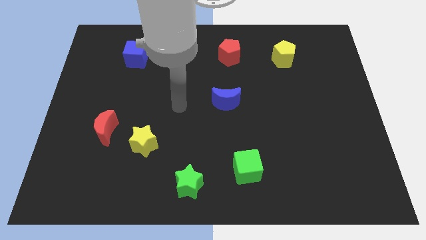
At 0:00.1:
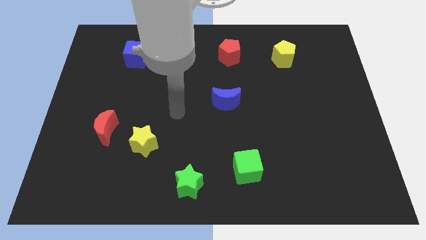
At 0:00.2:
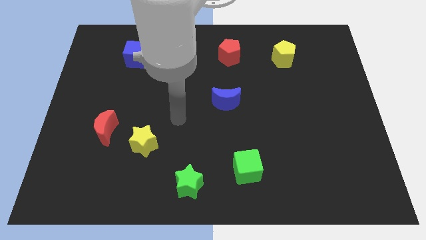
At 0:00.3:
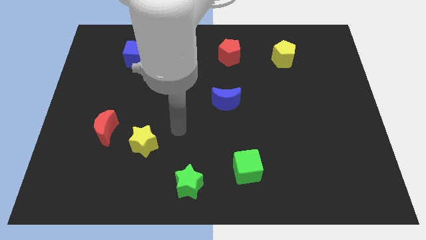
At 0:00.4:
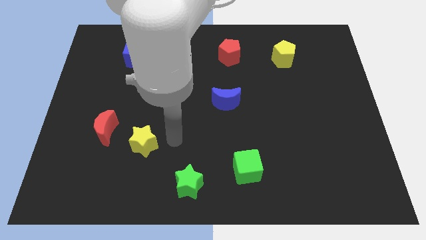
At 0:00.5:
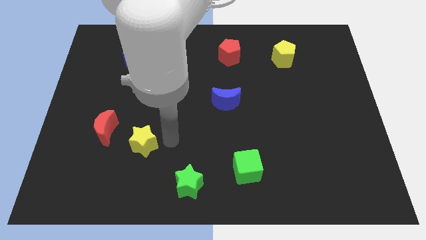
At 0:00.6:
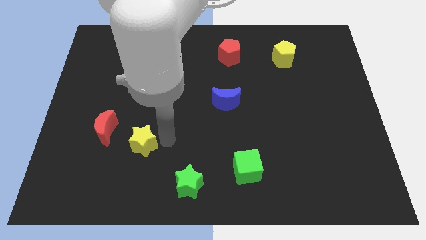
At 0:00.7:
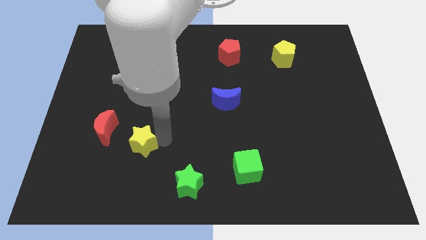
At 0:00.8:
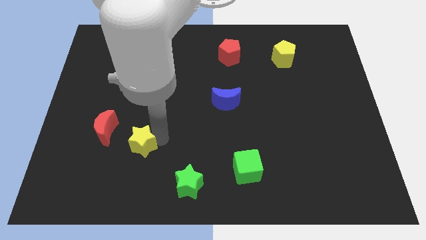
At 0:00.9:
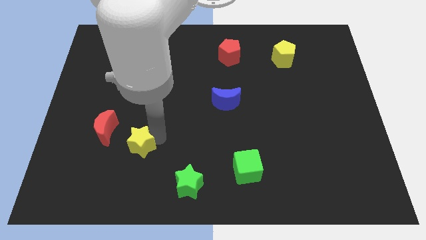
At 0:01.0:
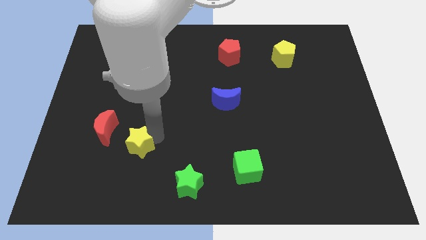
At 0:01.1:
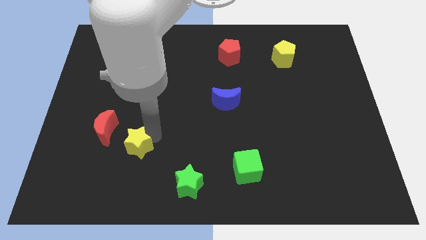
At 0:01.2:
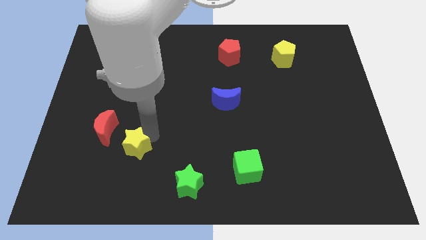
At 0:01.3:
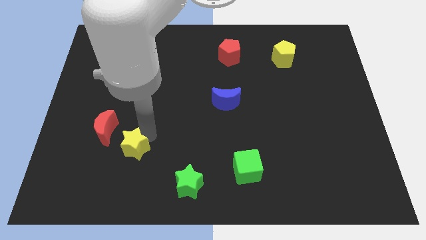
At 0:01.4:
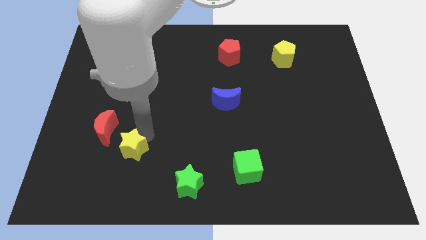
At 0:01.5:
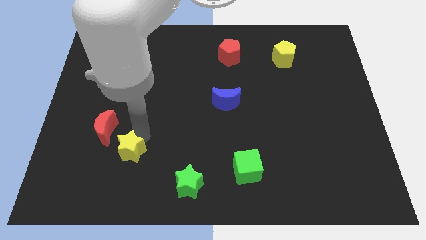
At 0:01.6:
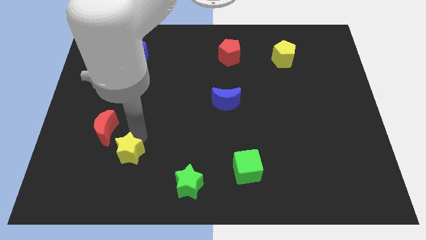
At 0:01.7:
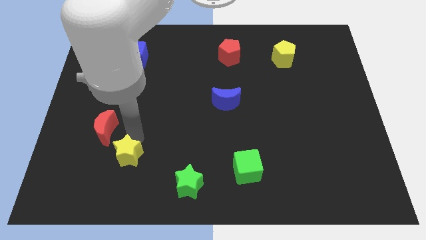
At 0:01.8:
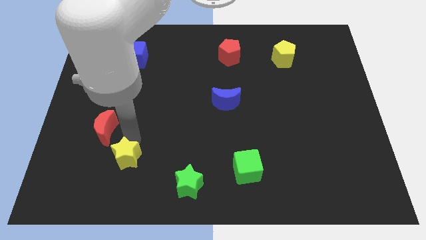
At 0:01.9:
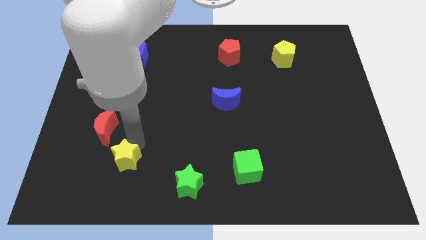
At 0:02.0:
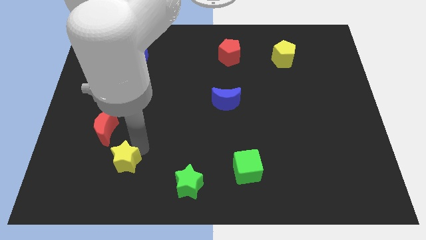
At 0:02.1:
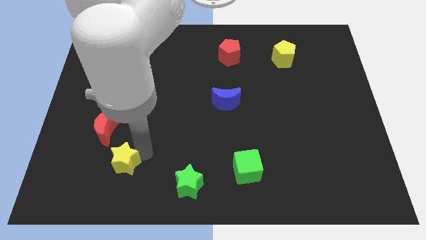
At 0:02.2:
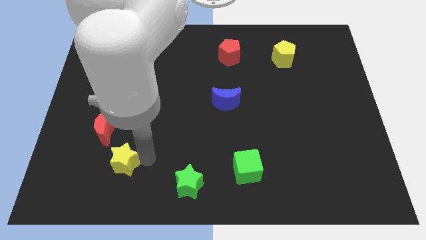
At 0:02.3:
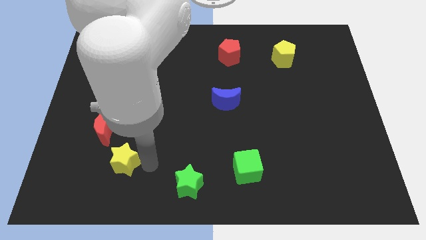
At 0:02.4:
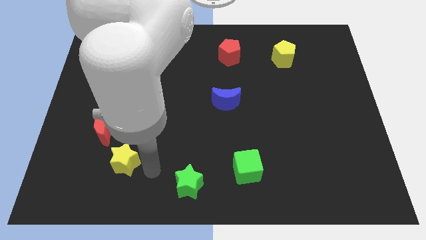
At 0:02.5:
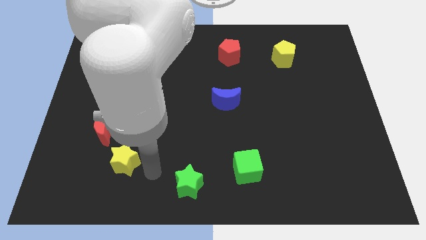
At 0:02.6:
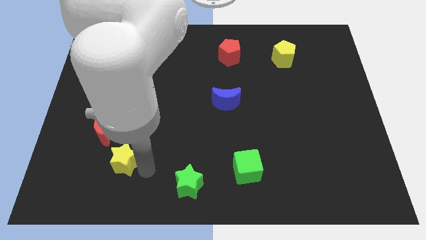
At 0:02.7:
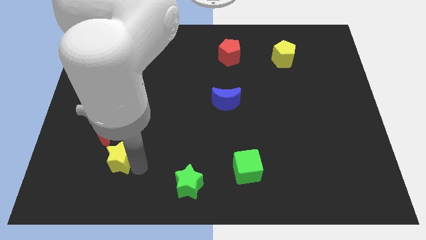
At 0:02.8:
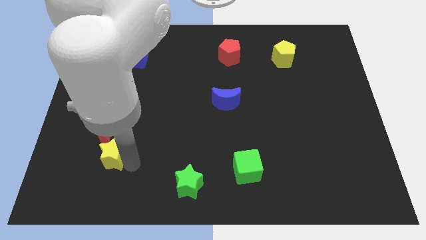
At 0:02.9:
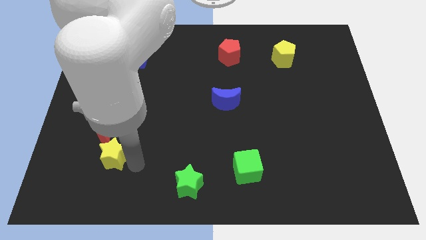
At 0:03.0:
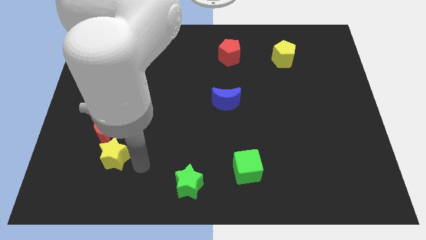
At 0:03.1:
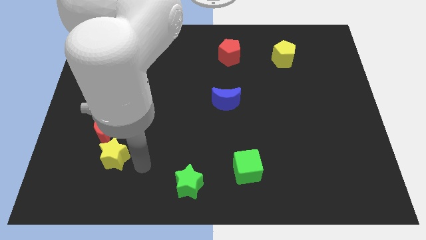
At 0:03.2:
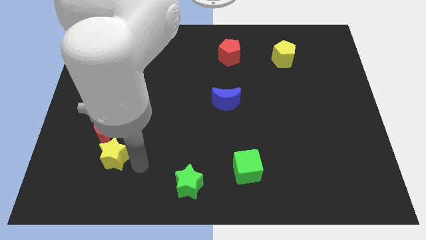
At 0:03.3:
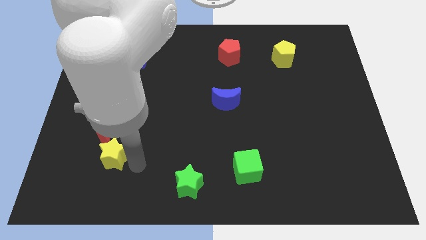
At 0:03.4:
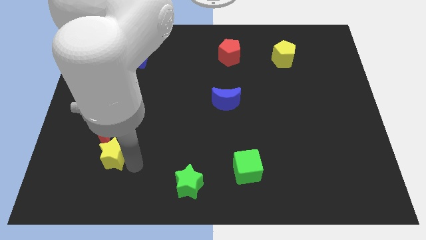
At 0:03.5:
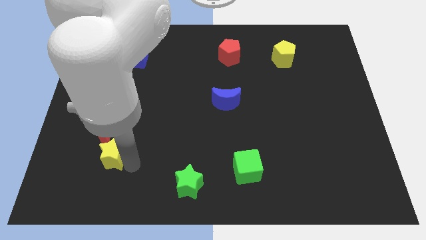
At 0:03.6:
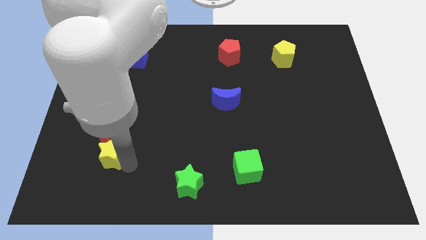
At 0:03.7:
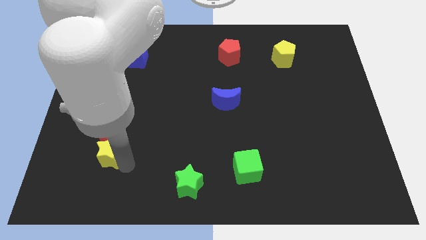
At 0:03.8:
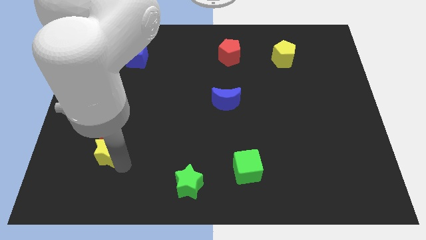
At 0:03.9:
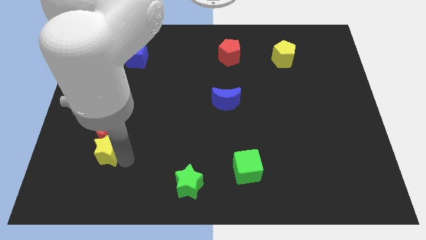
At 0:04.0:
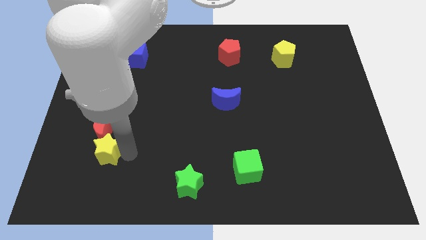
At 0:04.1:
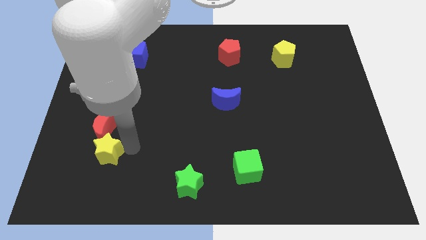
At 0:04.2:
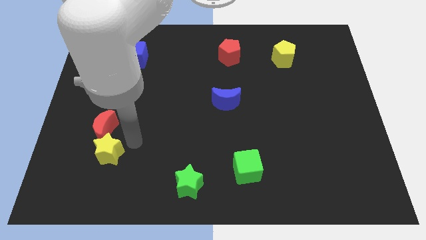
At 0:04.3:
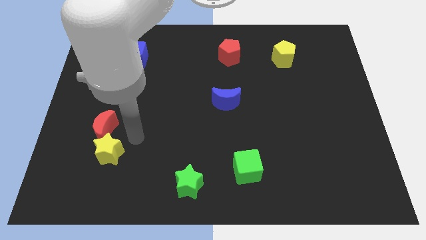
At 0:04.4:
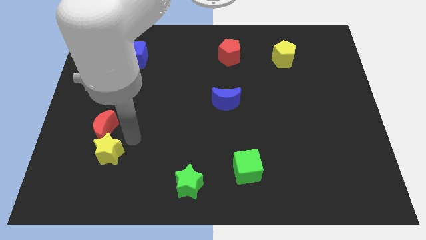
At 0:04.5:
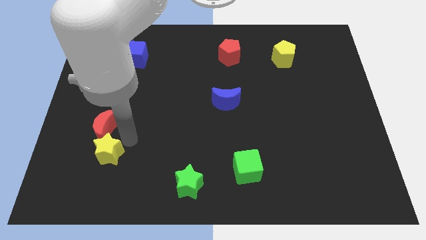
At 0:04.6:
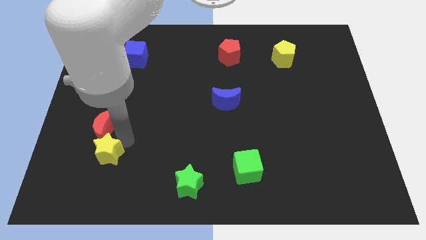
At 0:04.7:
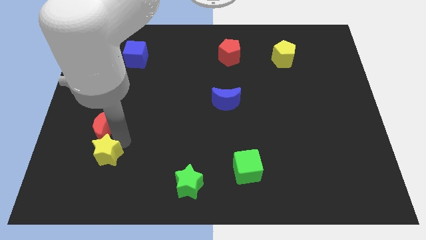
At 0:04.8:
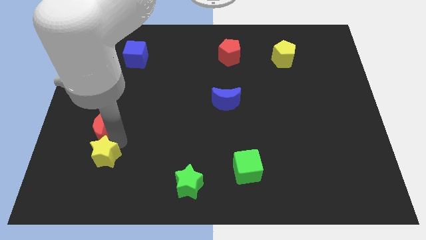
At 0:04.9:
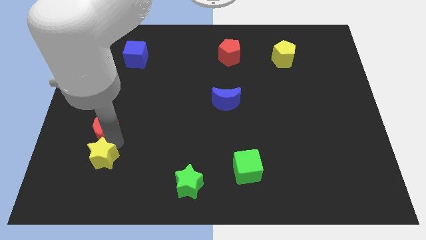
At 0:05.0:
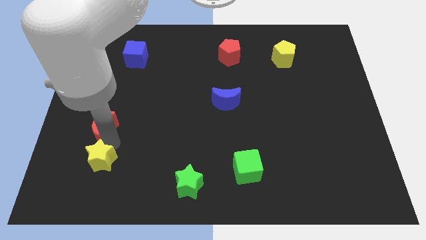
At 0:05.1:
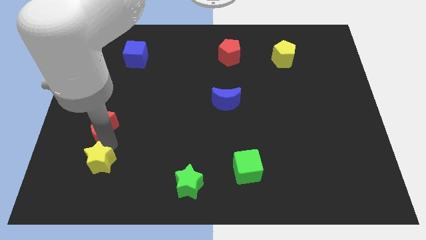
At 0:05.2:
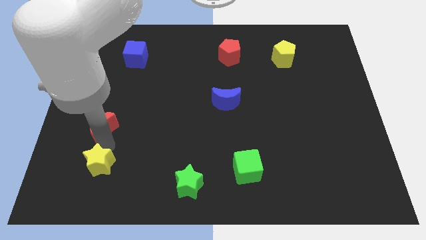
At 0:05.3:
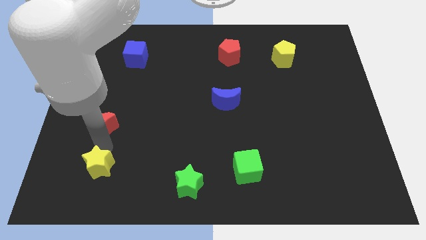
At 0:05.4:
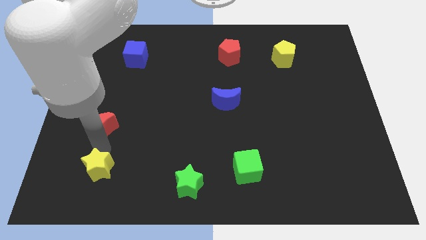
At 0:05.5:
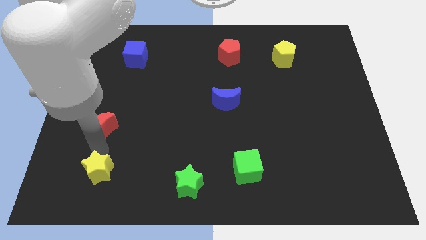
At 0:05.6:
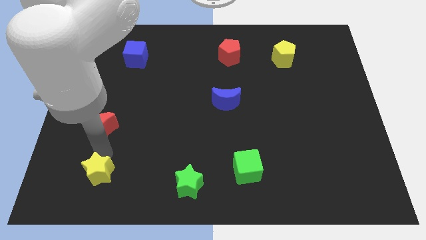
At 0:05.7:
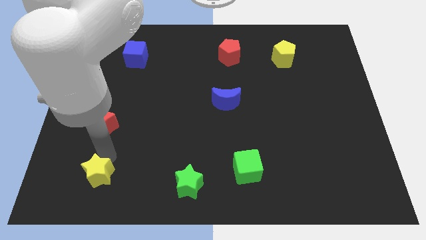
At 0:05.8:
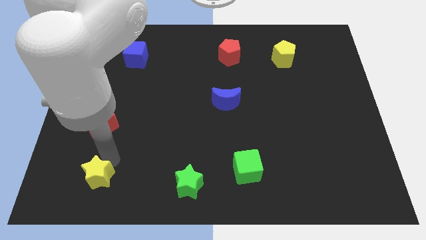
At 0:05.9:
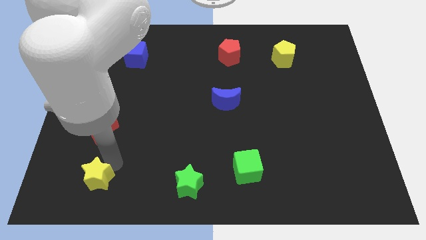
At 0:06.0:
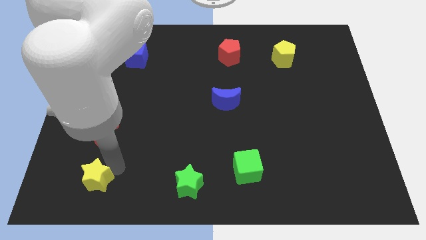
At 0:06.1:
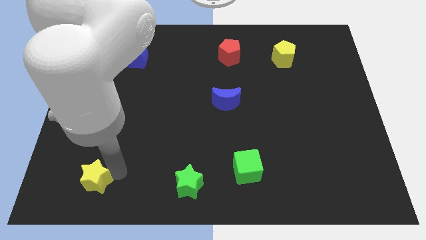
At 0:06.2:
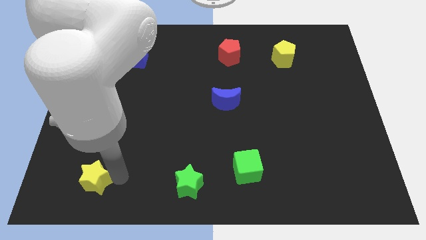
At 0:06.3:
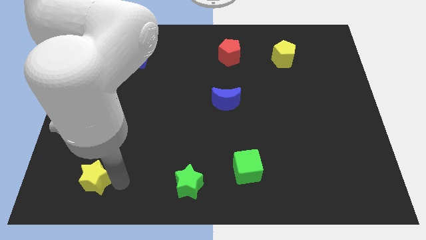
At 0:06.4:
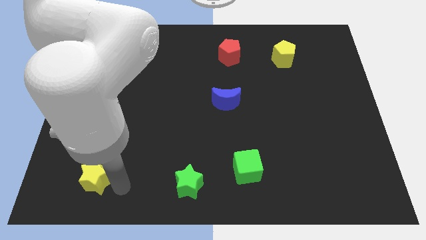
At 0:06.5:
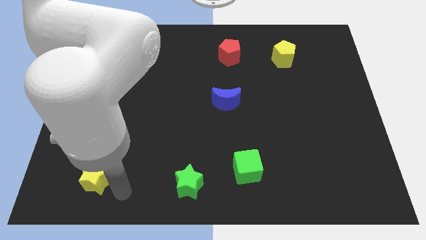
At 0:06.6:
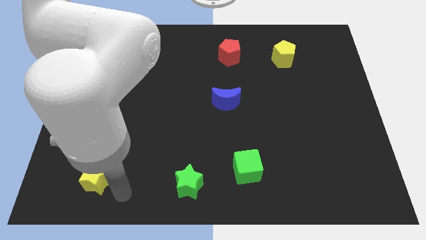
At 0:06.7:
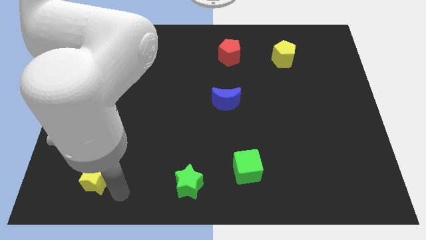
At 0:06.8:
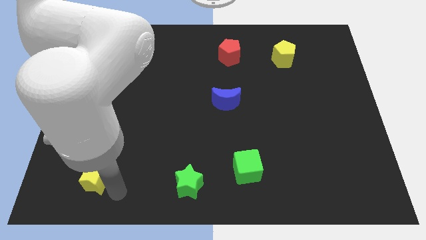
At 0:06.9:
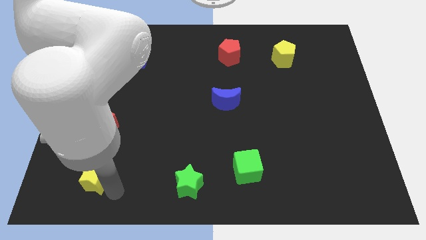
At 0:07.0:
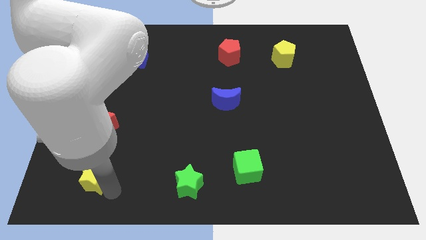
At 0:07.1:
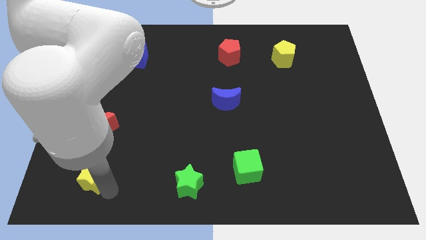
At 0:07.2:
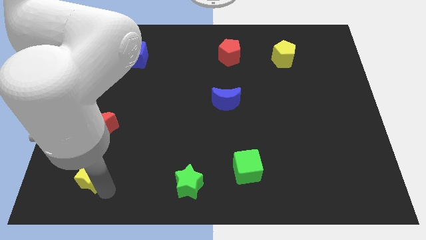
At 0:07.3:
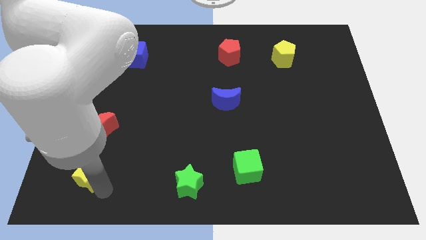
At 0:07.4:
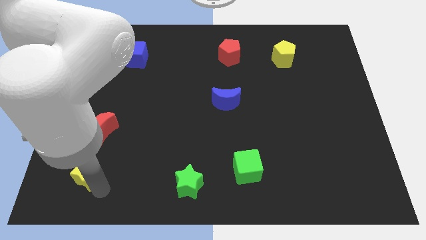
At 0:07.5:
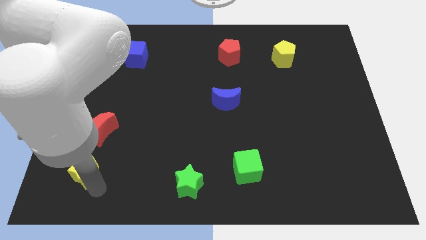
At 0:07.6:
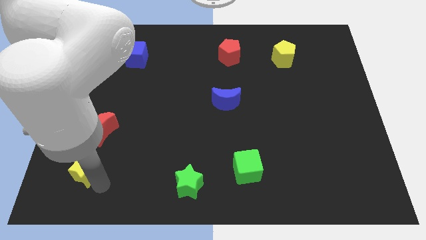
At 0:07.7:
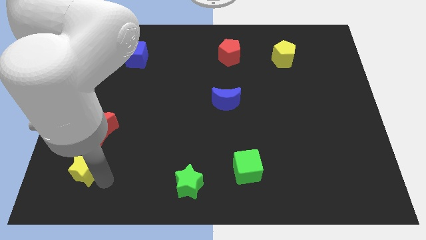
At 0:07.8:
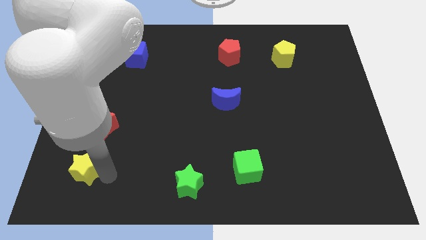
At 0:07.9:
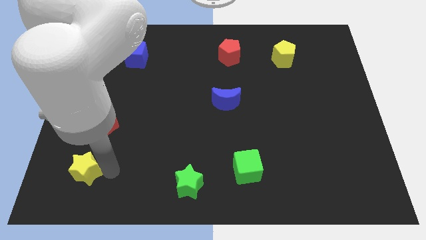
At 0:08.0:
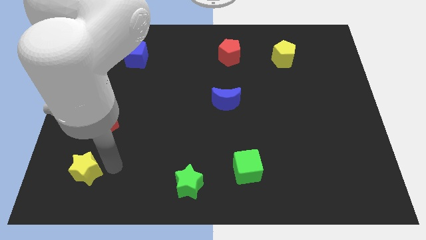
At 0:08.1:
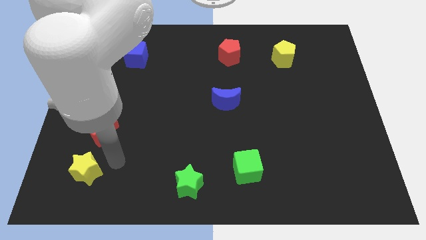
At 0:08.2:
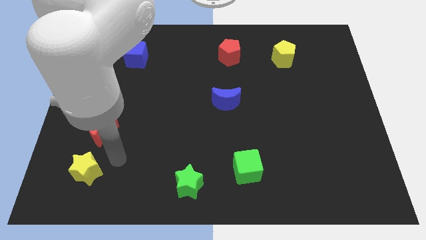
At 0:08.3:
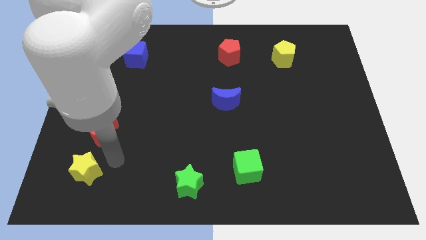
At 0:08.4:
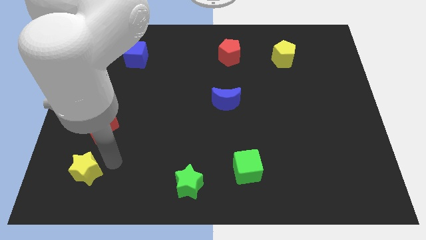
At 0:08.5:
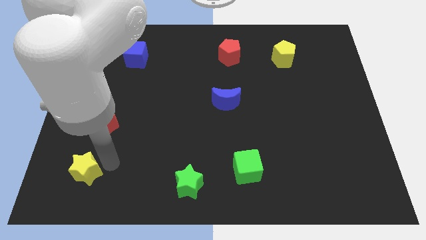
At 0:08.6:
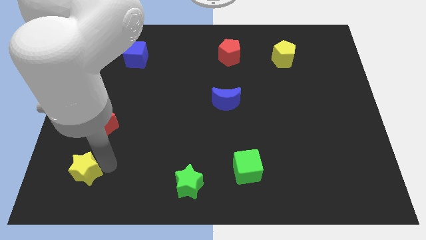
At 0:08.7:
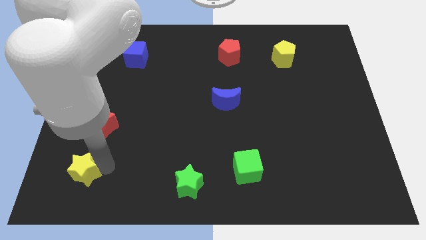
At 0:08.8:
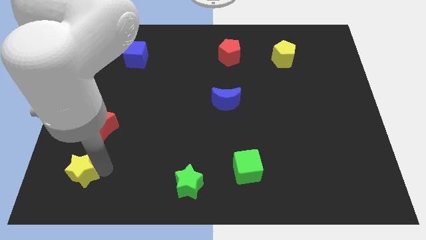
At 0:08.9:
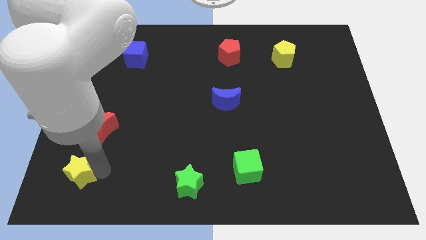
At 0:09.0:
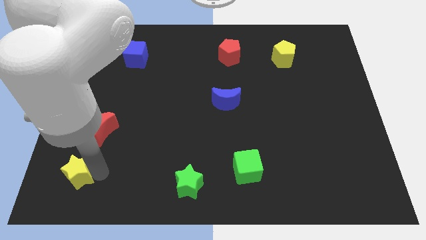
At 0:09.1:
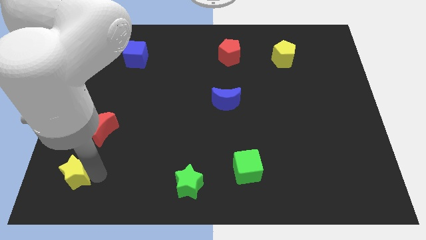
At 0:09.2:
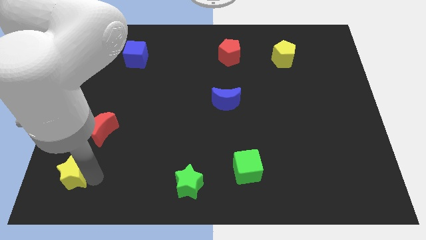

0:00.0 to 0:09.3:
slide the yellow star to the bottom left corner
